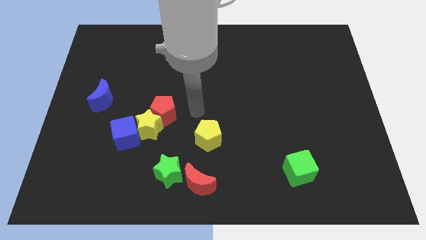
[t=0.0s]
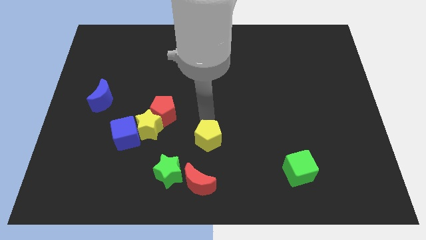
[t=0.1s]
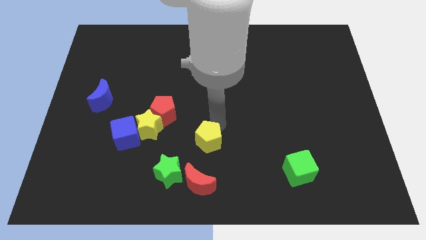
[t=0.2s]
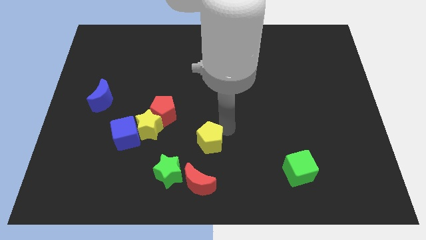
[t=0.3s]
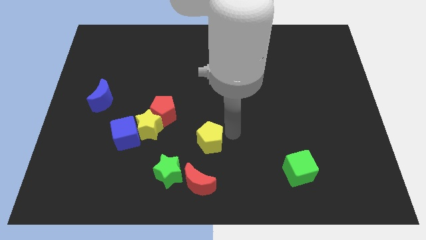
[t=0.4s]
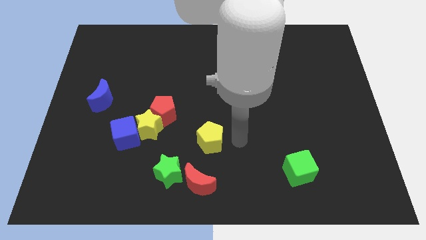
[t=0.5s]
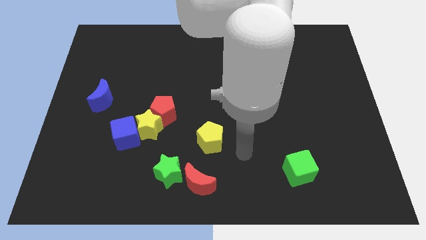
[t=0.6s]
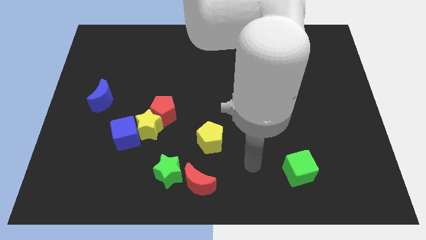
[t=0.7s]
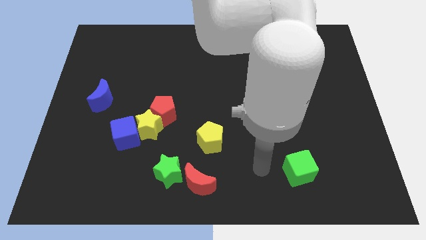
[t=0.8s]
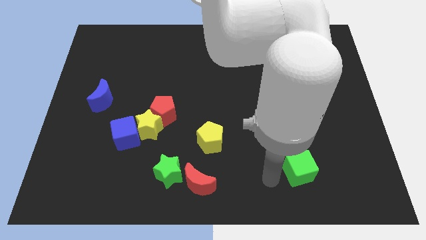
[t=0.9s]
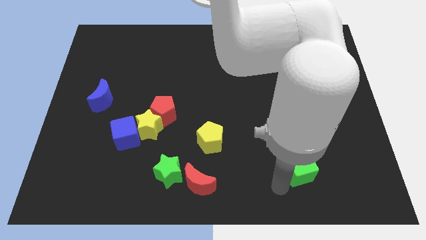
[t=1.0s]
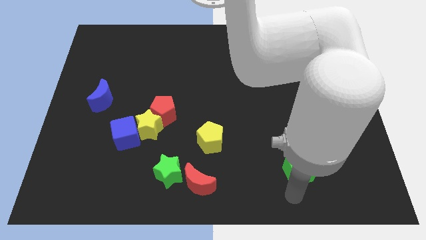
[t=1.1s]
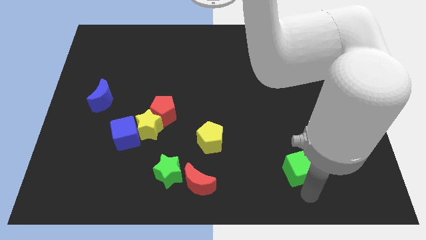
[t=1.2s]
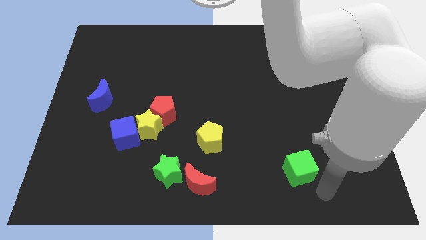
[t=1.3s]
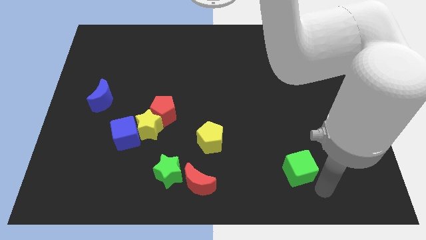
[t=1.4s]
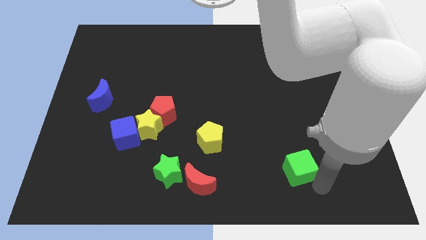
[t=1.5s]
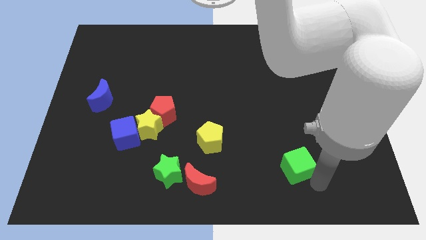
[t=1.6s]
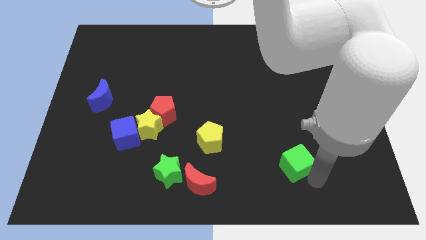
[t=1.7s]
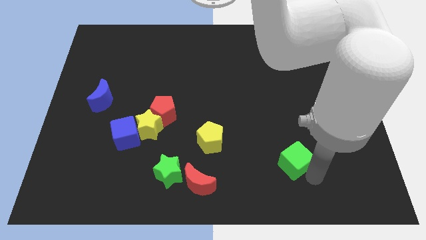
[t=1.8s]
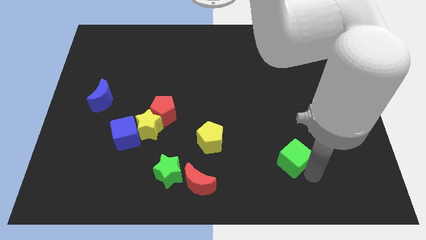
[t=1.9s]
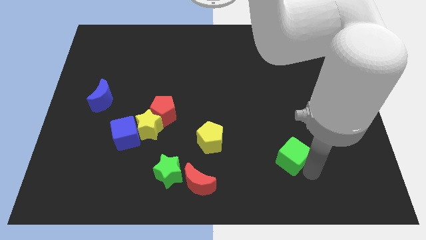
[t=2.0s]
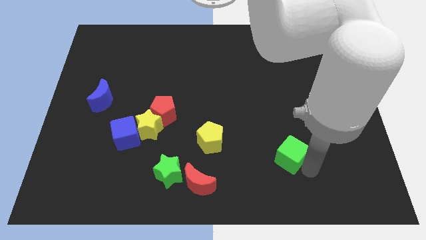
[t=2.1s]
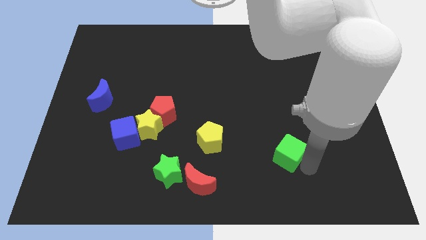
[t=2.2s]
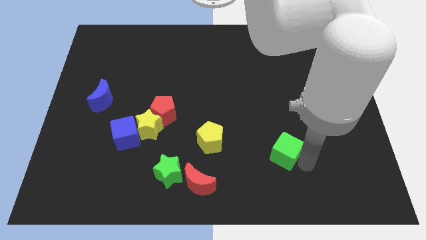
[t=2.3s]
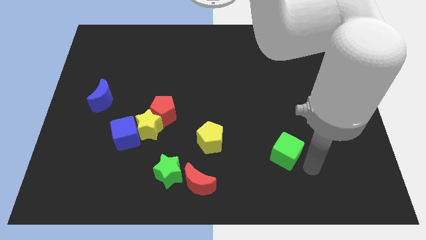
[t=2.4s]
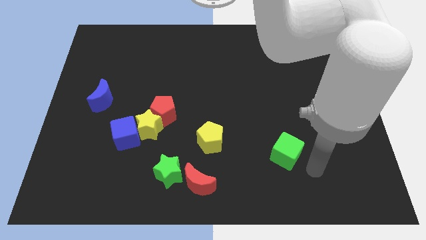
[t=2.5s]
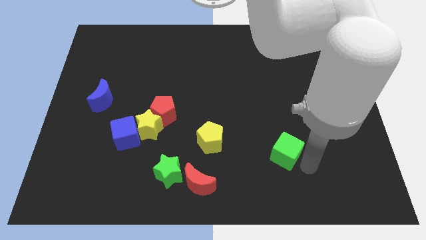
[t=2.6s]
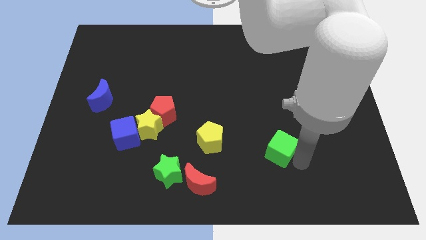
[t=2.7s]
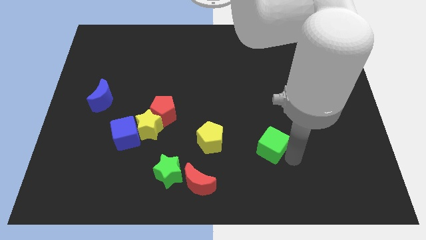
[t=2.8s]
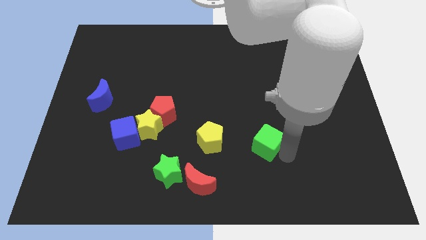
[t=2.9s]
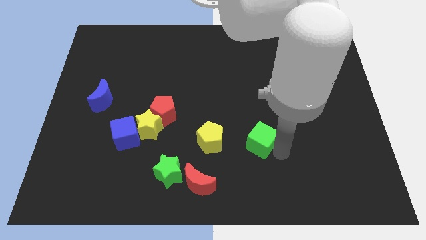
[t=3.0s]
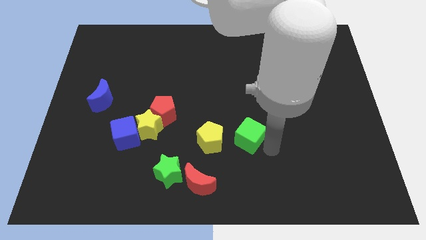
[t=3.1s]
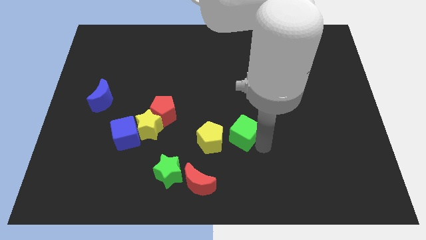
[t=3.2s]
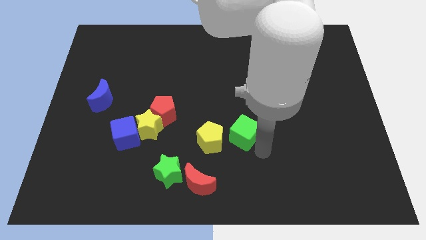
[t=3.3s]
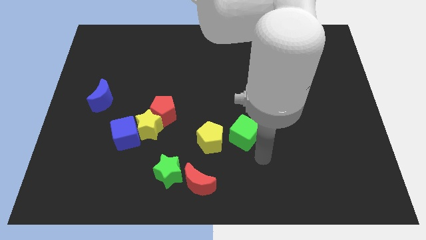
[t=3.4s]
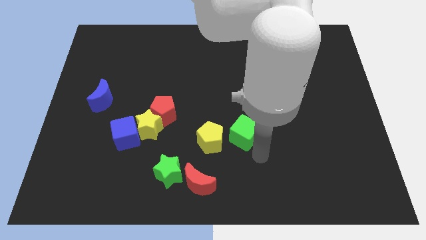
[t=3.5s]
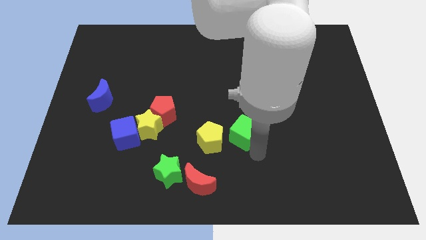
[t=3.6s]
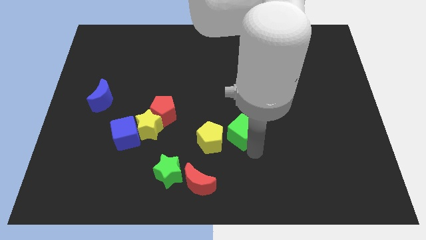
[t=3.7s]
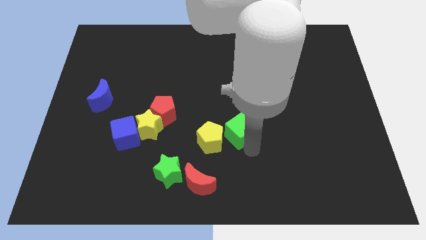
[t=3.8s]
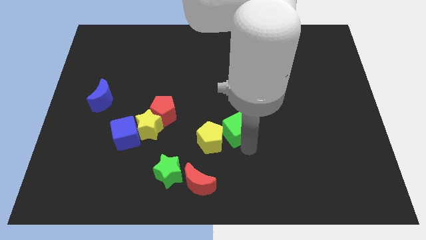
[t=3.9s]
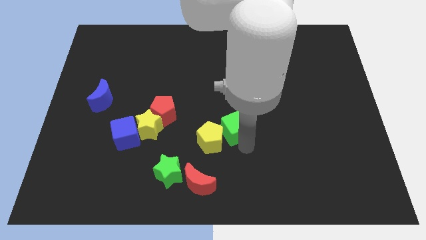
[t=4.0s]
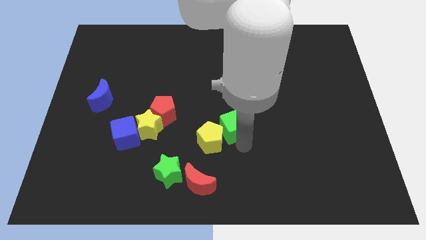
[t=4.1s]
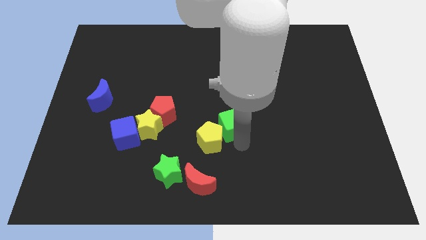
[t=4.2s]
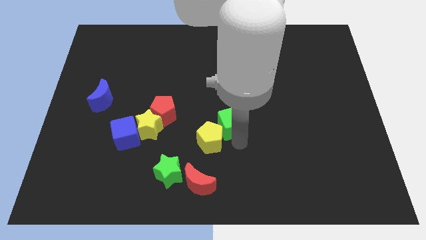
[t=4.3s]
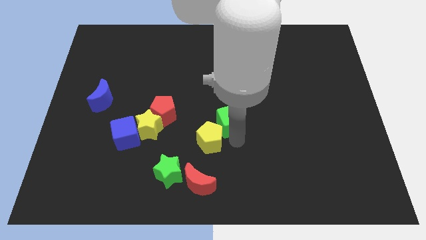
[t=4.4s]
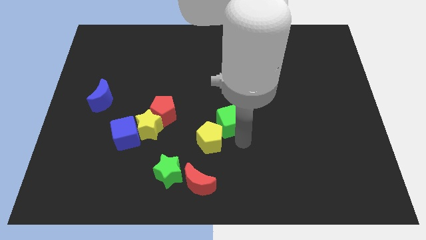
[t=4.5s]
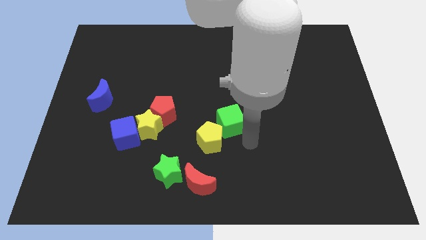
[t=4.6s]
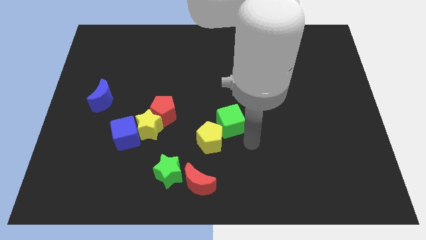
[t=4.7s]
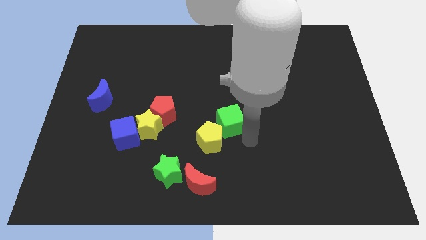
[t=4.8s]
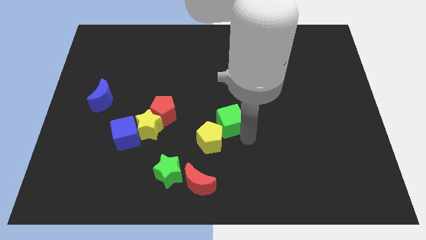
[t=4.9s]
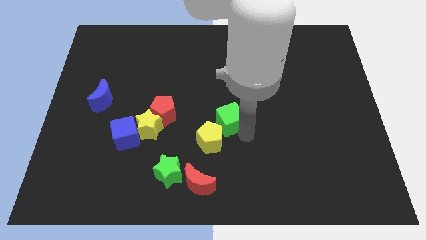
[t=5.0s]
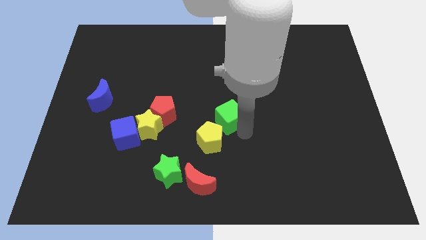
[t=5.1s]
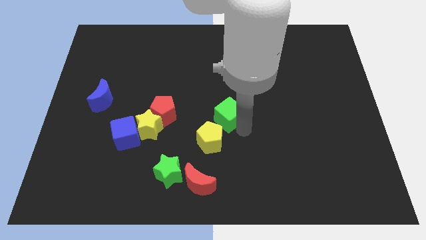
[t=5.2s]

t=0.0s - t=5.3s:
push the green cube diagonally up and to the left

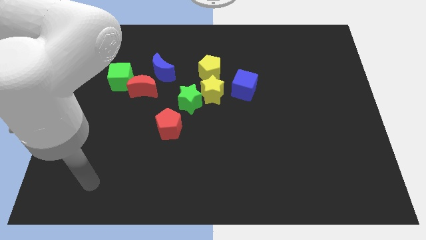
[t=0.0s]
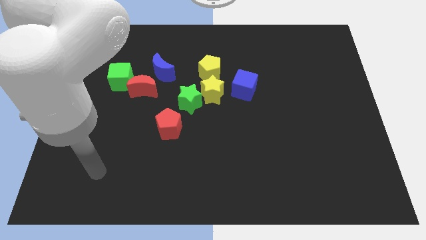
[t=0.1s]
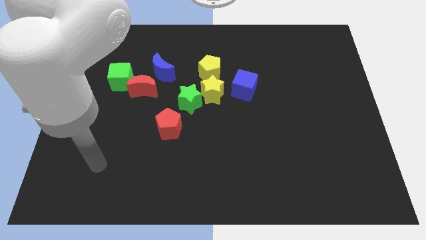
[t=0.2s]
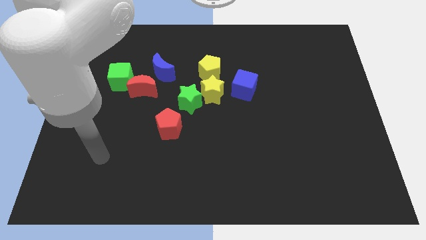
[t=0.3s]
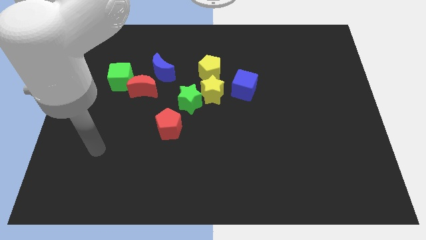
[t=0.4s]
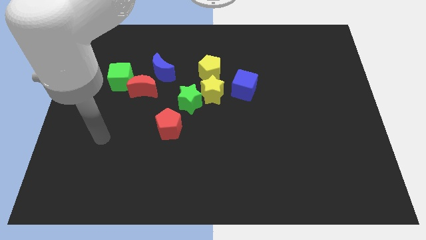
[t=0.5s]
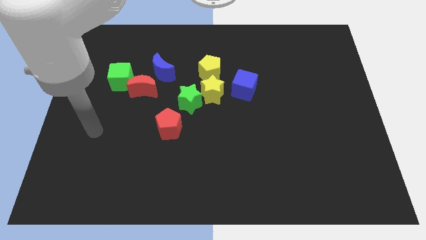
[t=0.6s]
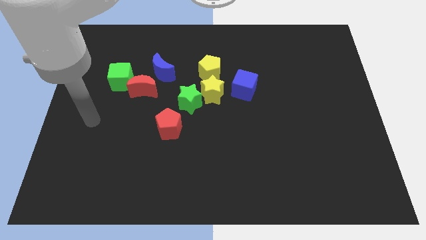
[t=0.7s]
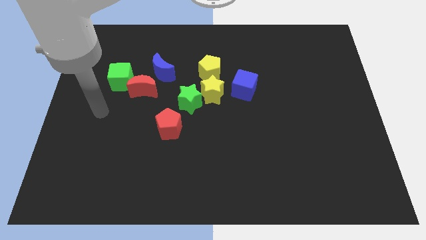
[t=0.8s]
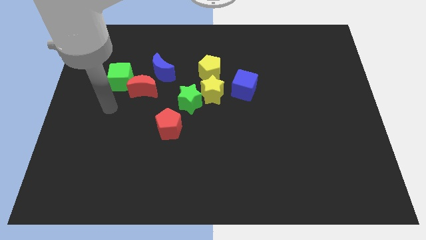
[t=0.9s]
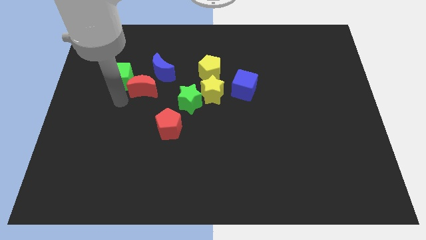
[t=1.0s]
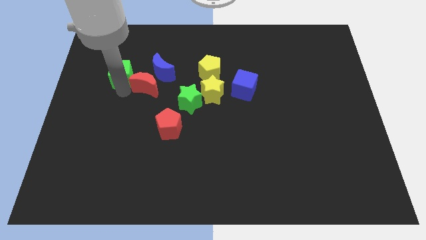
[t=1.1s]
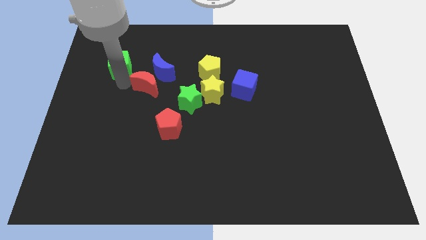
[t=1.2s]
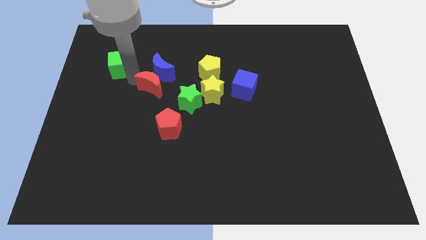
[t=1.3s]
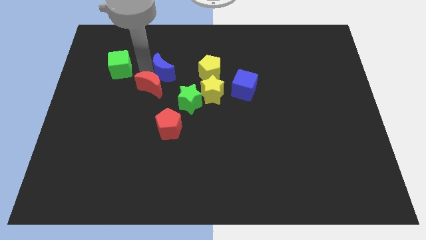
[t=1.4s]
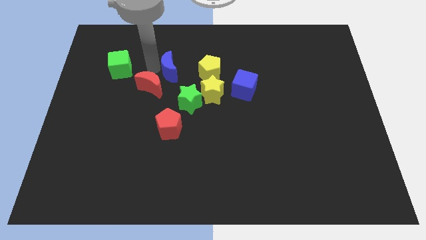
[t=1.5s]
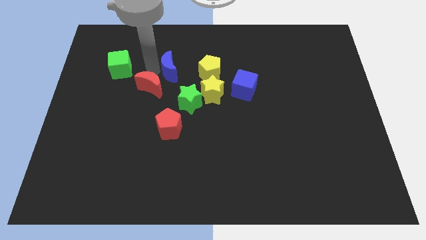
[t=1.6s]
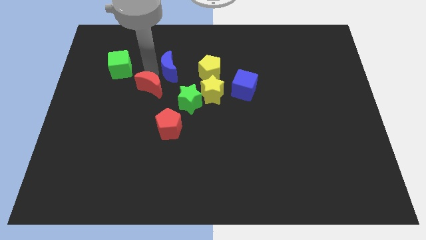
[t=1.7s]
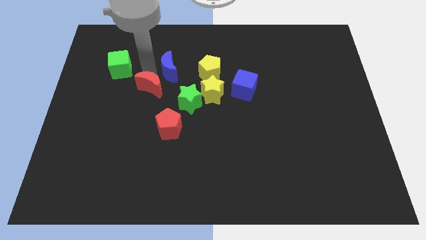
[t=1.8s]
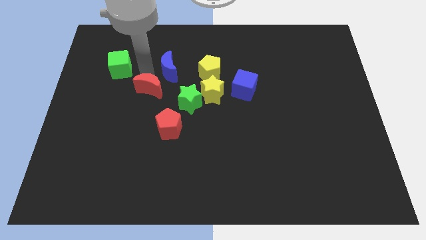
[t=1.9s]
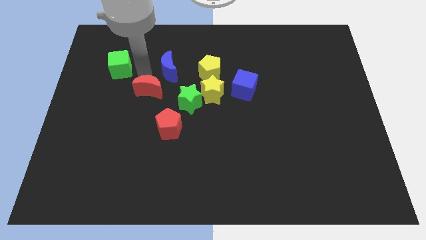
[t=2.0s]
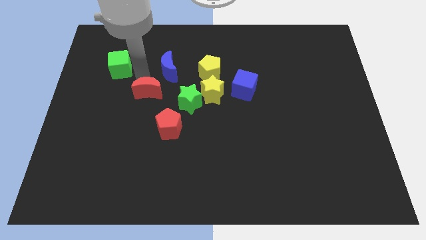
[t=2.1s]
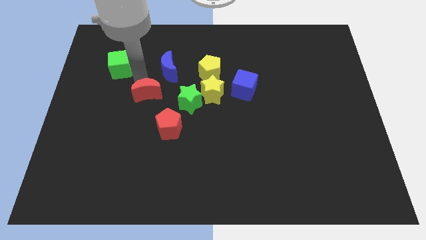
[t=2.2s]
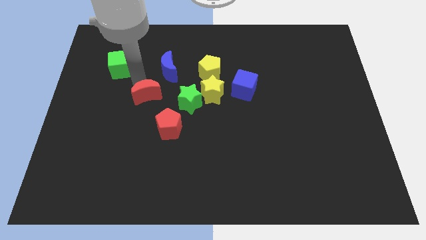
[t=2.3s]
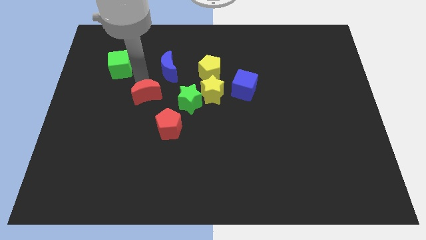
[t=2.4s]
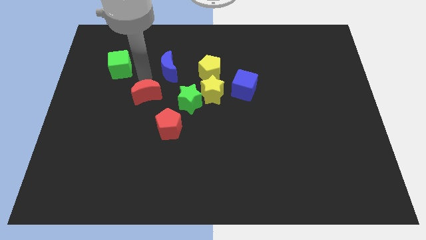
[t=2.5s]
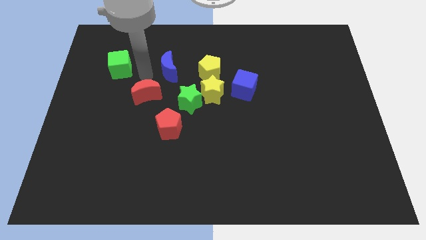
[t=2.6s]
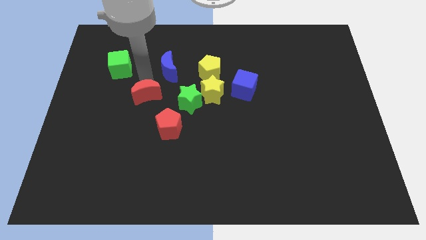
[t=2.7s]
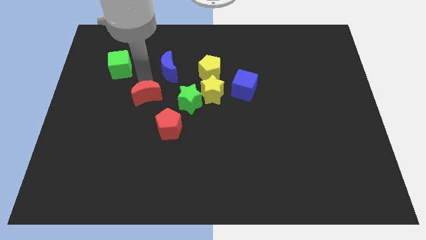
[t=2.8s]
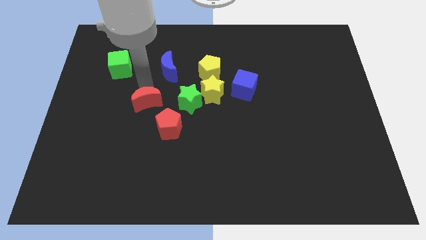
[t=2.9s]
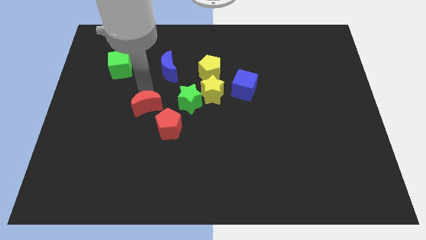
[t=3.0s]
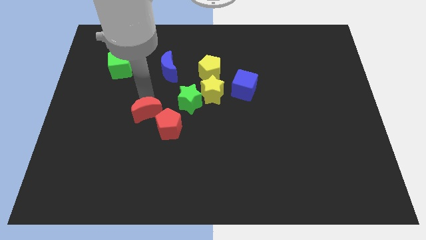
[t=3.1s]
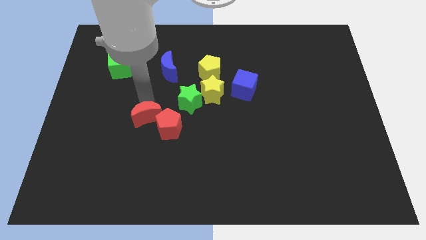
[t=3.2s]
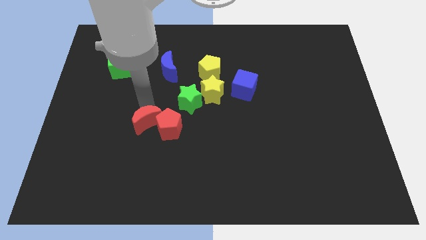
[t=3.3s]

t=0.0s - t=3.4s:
slightly slide the red moon down and to the right
